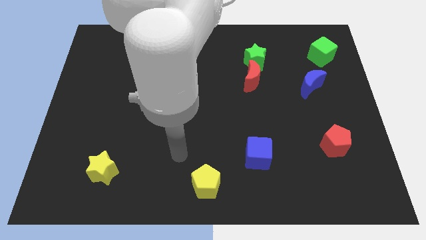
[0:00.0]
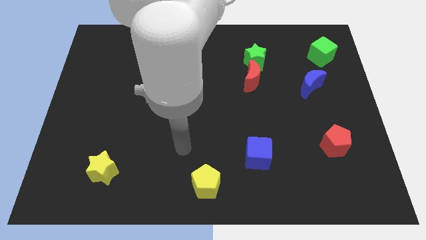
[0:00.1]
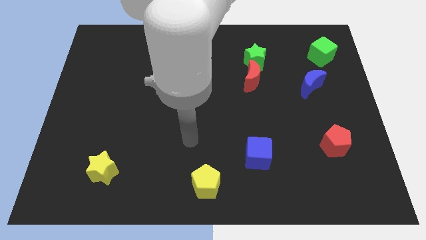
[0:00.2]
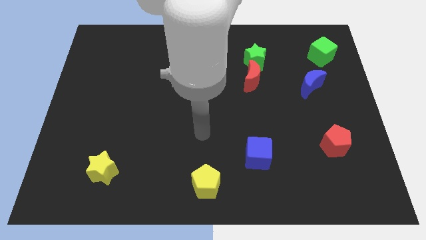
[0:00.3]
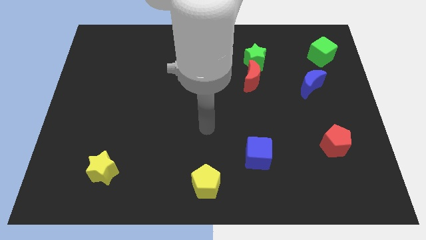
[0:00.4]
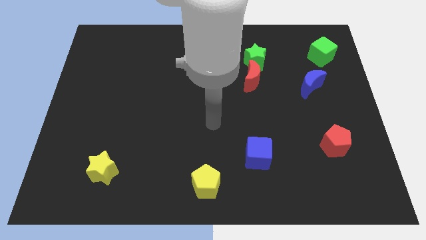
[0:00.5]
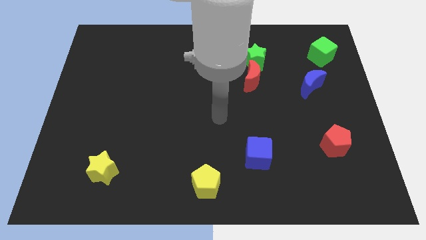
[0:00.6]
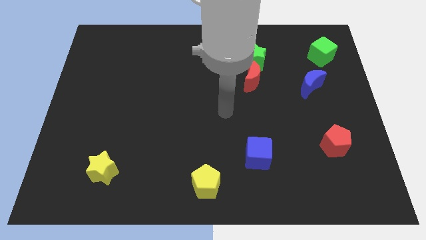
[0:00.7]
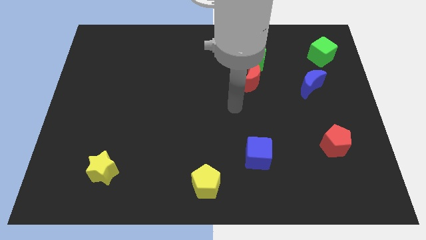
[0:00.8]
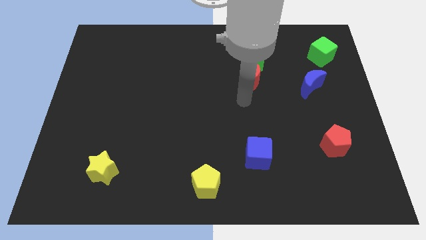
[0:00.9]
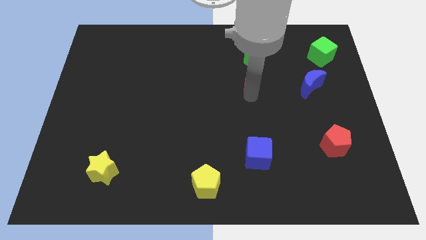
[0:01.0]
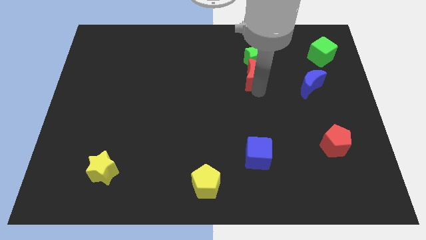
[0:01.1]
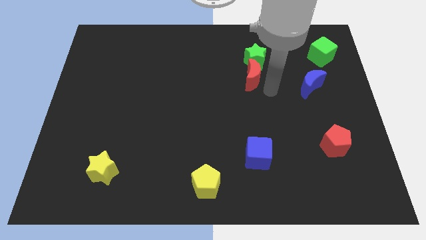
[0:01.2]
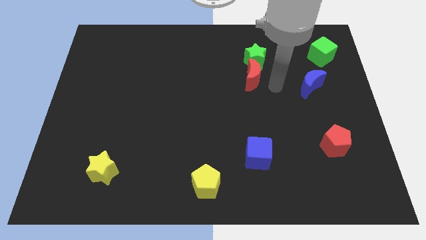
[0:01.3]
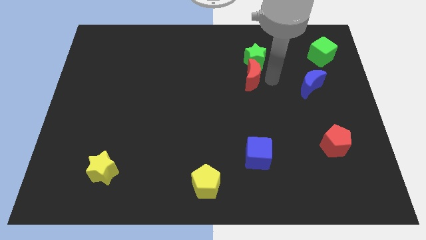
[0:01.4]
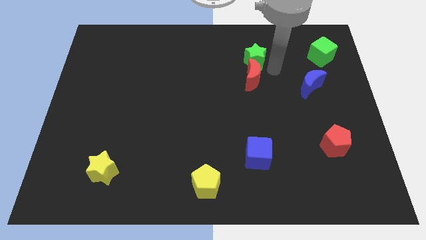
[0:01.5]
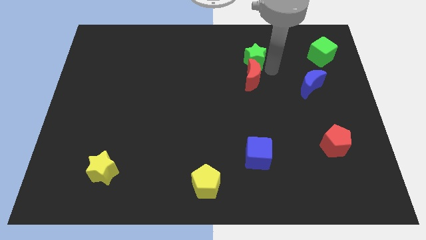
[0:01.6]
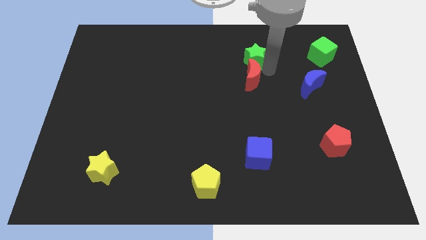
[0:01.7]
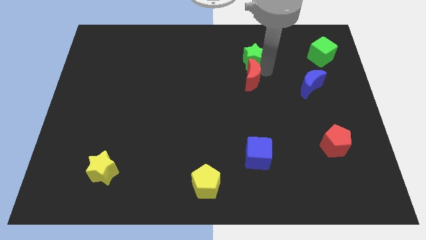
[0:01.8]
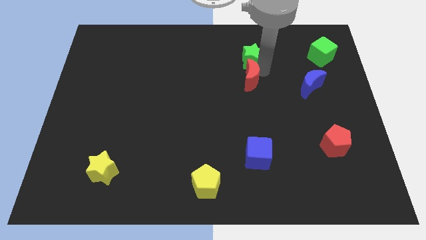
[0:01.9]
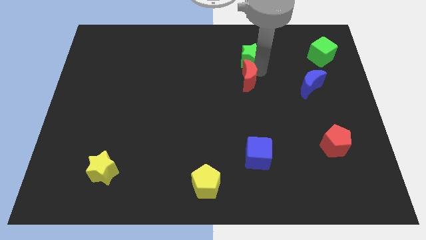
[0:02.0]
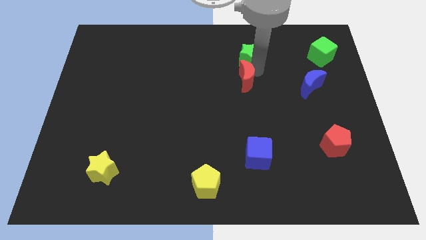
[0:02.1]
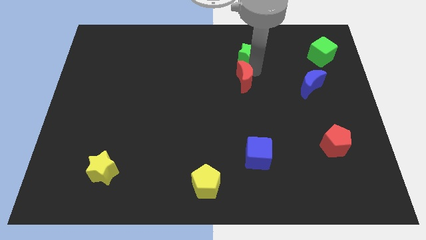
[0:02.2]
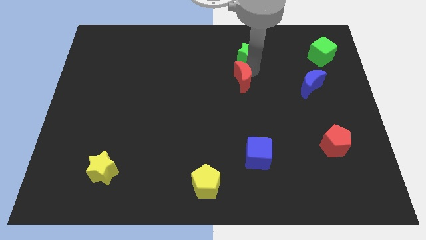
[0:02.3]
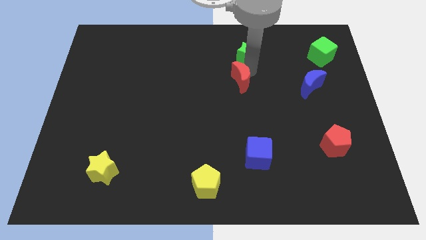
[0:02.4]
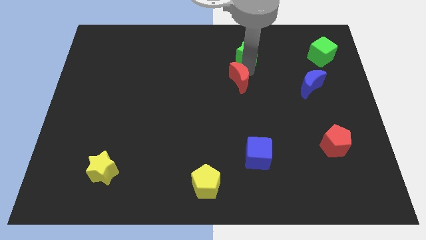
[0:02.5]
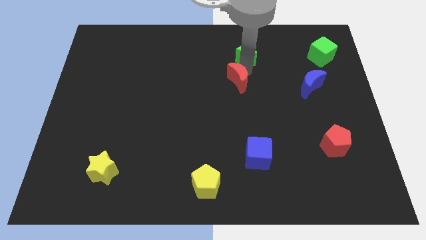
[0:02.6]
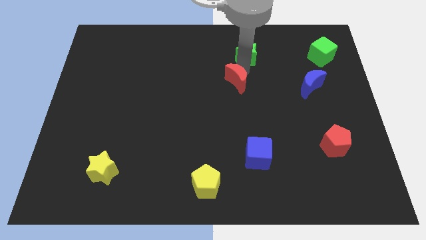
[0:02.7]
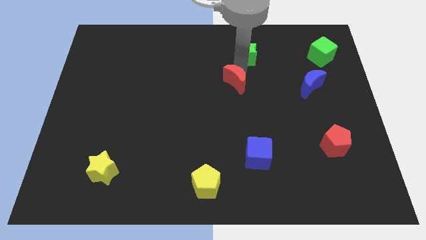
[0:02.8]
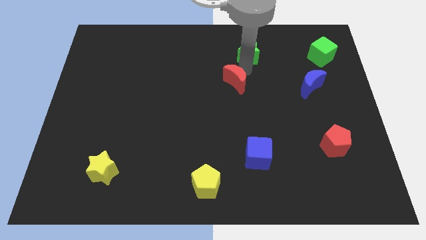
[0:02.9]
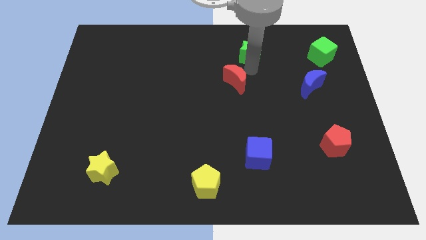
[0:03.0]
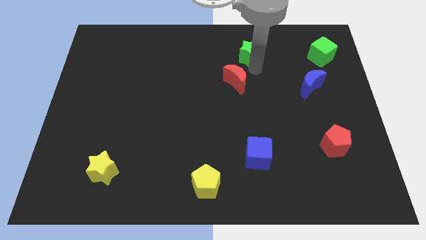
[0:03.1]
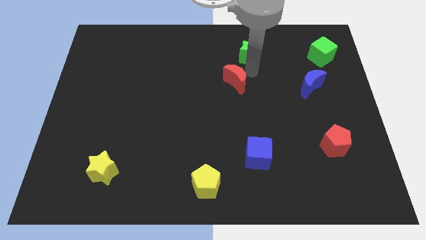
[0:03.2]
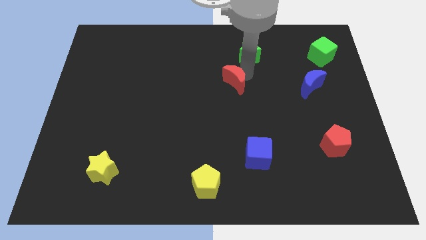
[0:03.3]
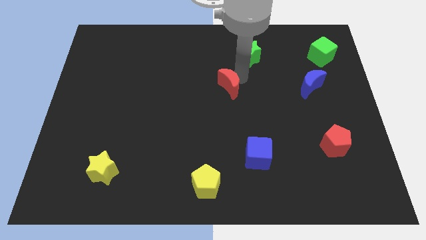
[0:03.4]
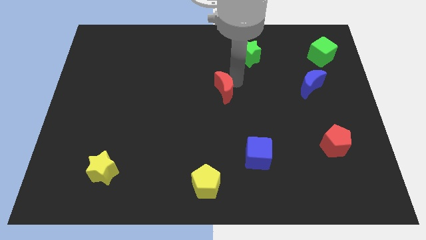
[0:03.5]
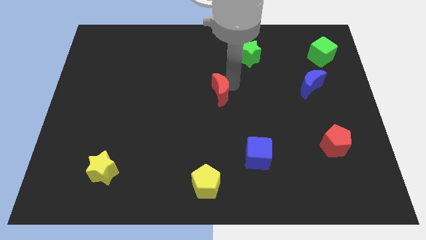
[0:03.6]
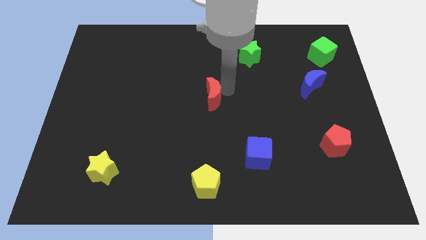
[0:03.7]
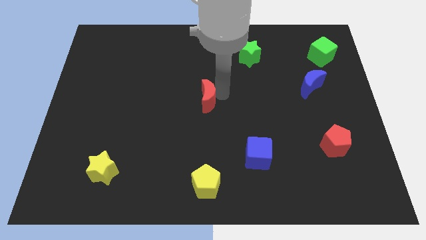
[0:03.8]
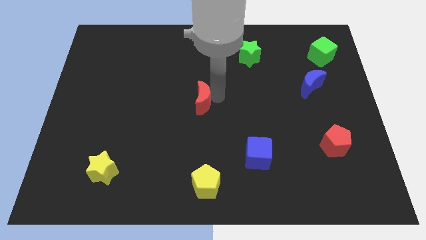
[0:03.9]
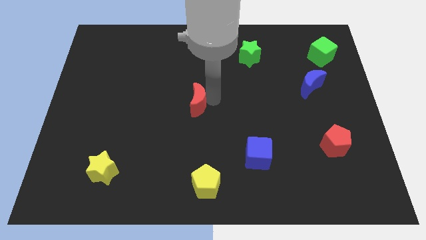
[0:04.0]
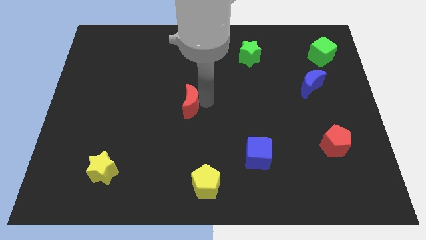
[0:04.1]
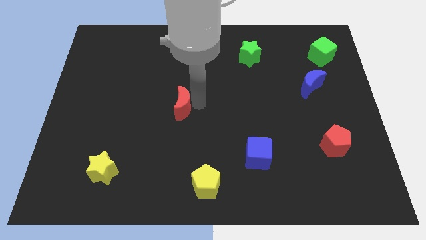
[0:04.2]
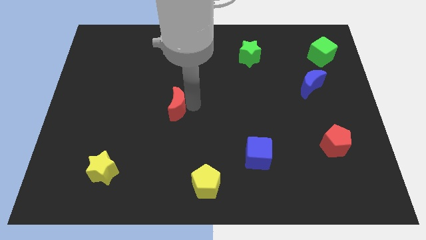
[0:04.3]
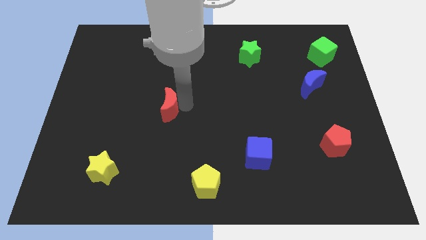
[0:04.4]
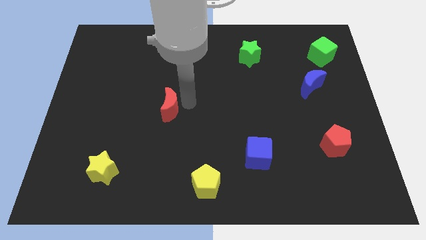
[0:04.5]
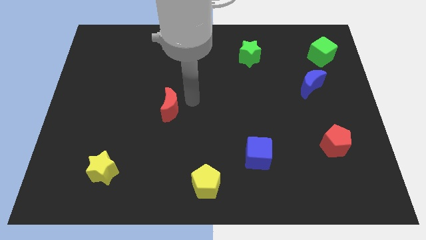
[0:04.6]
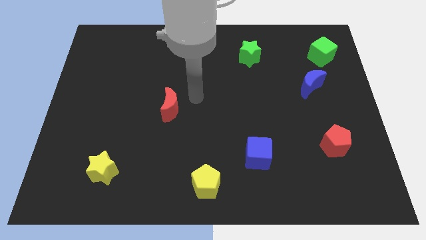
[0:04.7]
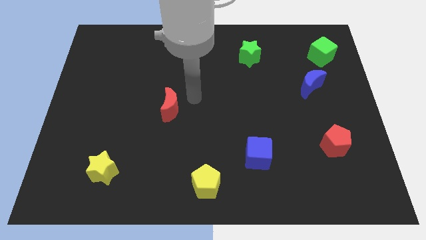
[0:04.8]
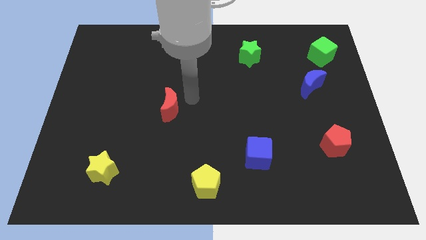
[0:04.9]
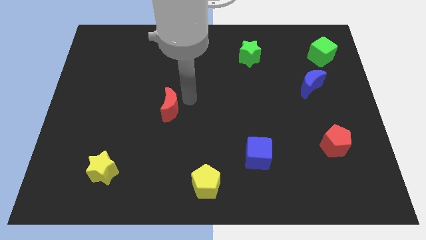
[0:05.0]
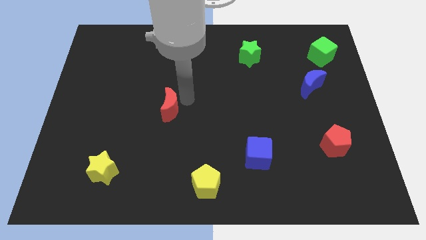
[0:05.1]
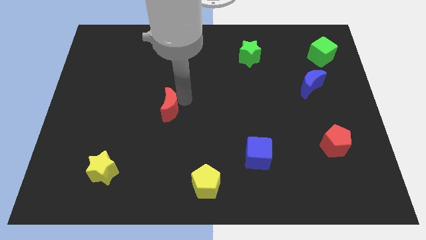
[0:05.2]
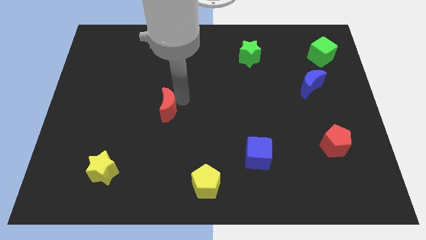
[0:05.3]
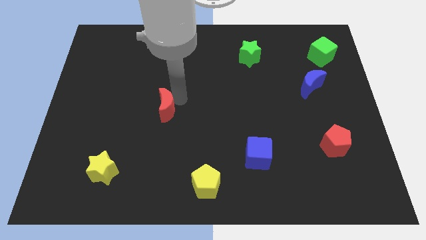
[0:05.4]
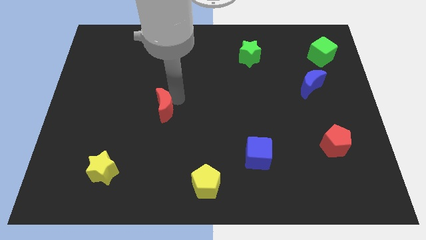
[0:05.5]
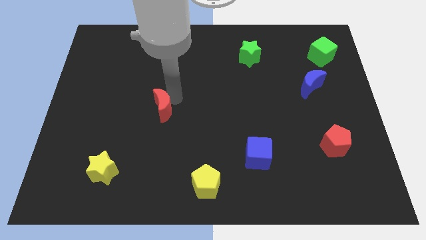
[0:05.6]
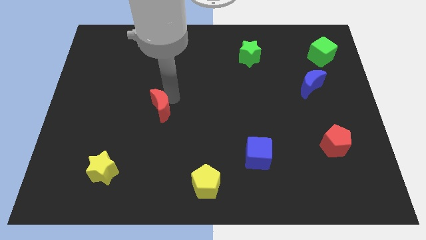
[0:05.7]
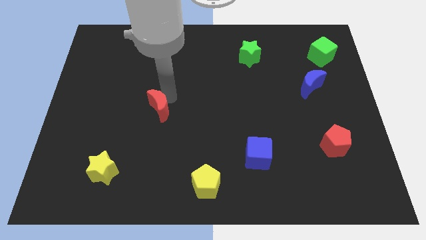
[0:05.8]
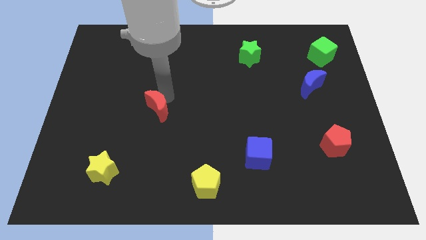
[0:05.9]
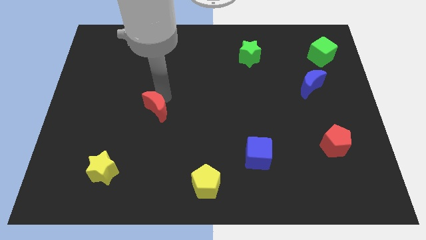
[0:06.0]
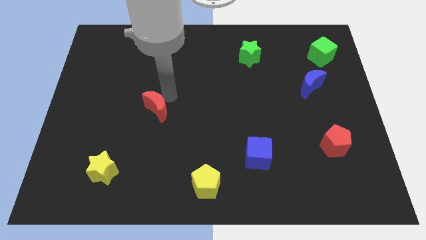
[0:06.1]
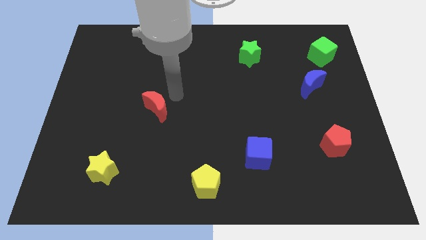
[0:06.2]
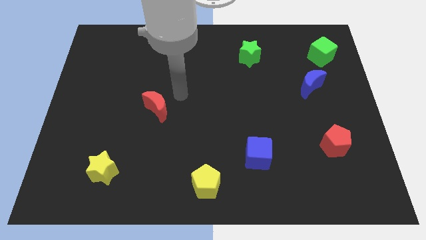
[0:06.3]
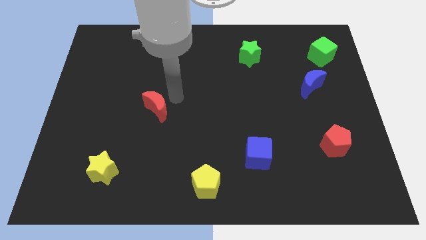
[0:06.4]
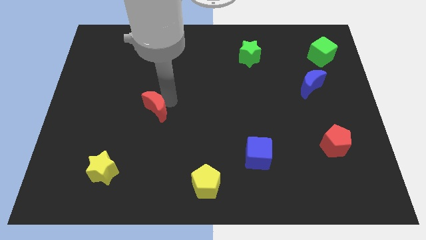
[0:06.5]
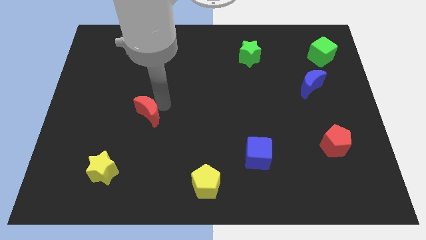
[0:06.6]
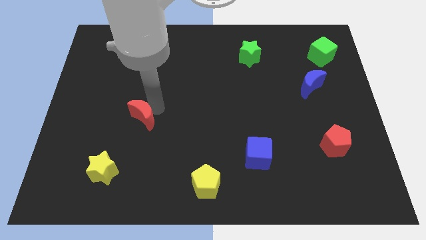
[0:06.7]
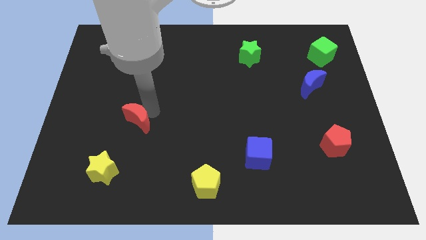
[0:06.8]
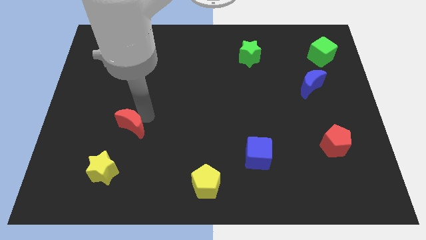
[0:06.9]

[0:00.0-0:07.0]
push the red moon above the yellow star

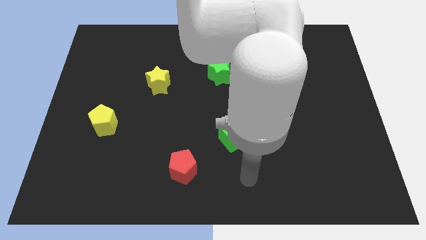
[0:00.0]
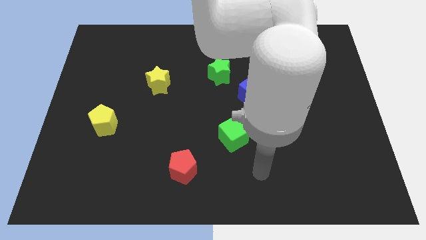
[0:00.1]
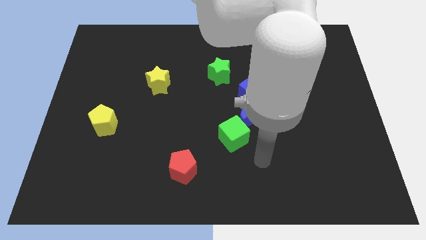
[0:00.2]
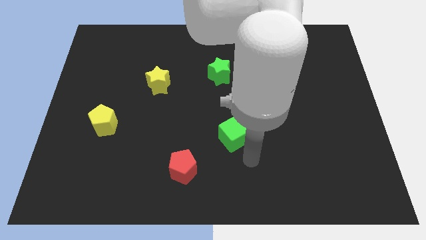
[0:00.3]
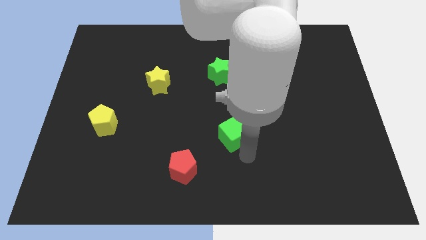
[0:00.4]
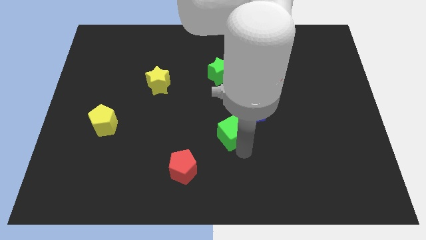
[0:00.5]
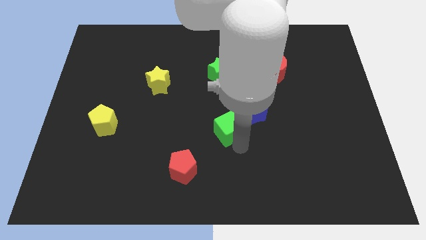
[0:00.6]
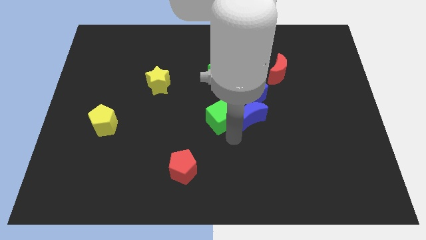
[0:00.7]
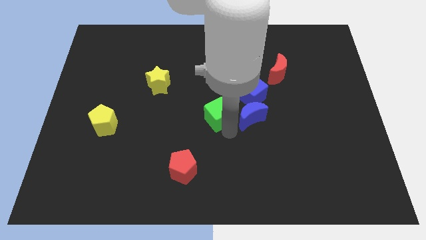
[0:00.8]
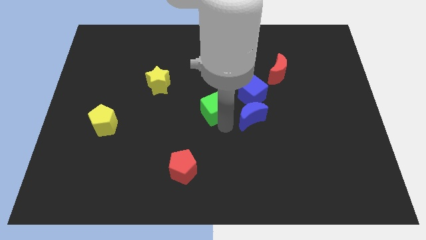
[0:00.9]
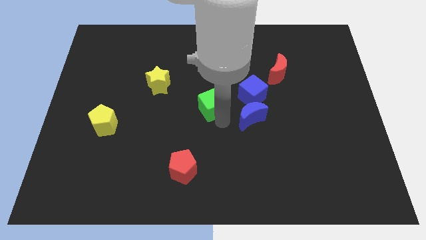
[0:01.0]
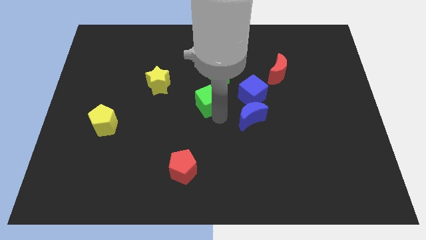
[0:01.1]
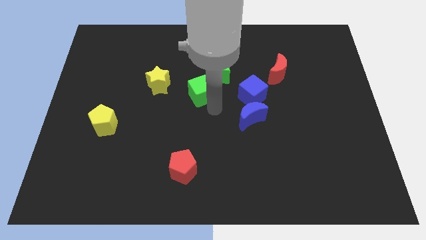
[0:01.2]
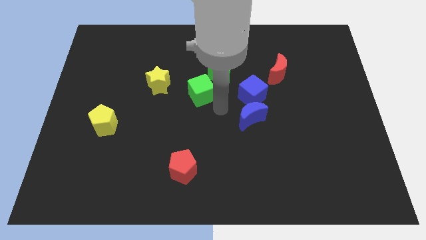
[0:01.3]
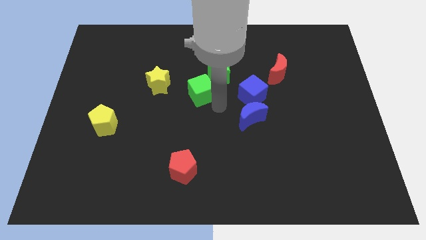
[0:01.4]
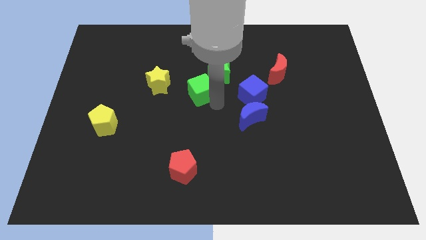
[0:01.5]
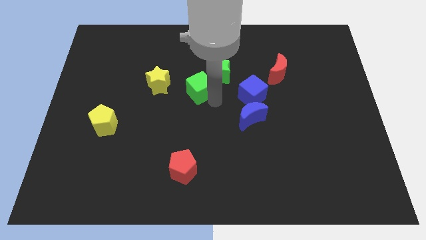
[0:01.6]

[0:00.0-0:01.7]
put the green cube just left of the green star
